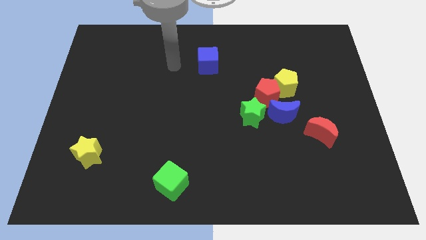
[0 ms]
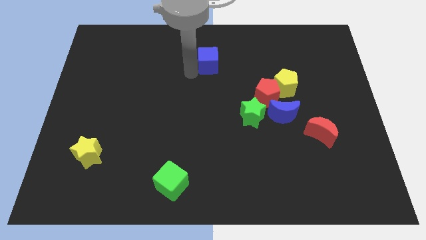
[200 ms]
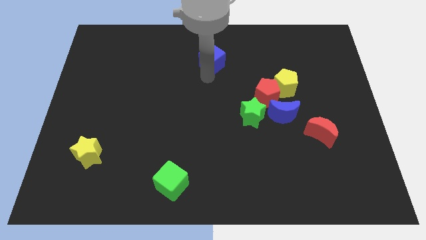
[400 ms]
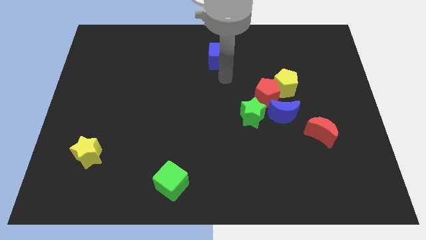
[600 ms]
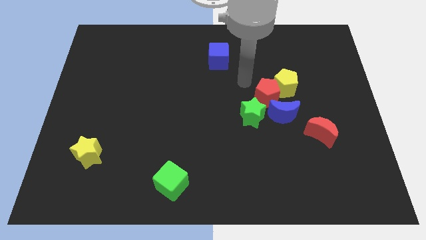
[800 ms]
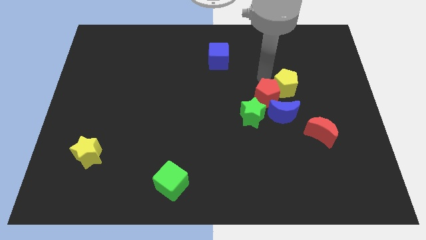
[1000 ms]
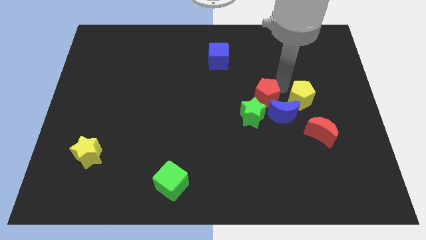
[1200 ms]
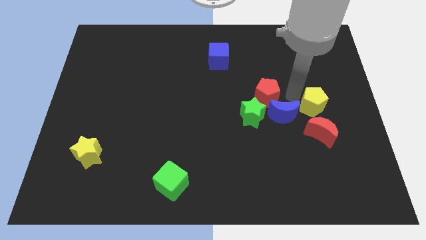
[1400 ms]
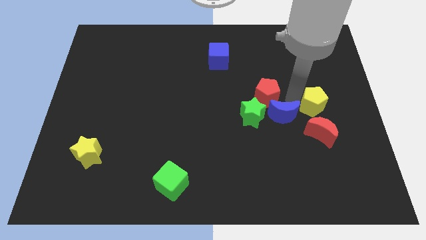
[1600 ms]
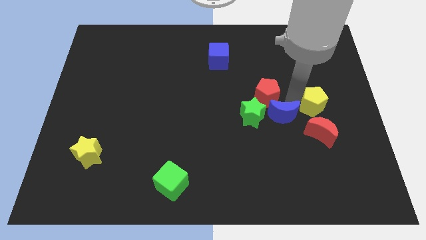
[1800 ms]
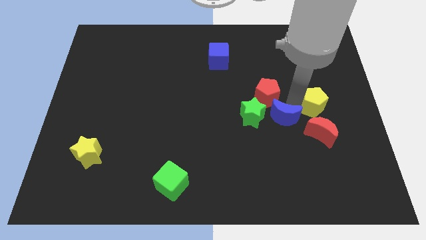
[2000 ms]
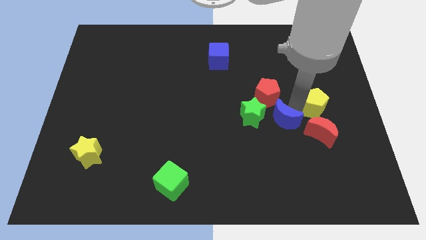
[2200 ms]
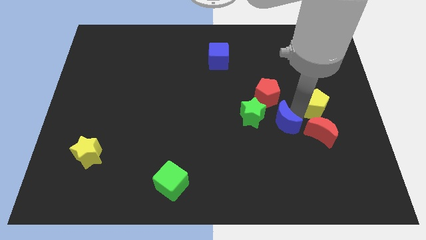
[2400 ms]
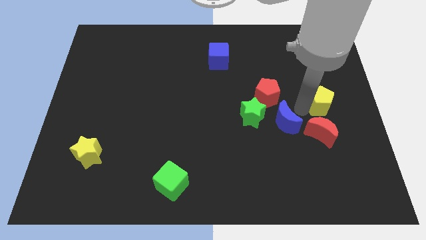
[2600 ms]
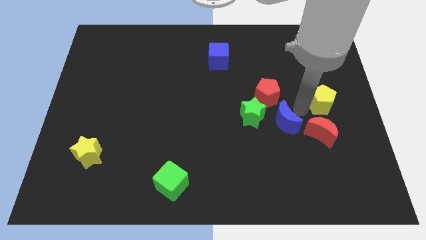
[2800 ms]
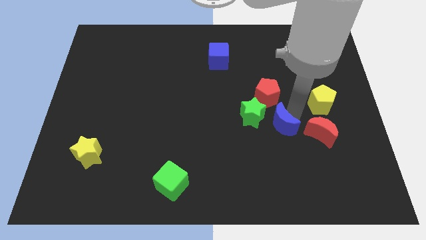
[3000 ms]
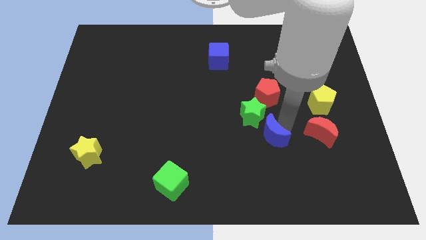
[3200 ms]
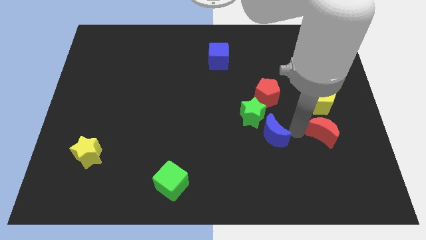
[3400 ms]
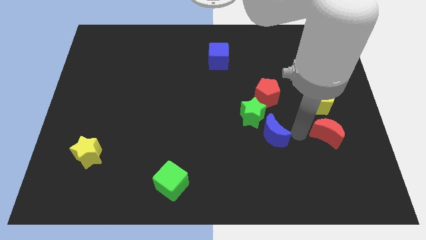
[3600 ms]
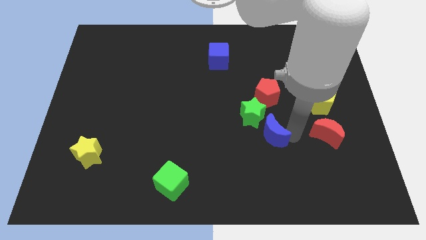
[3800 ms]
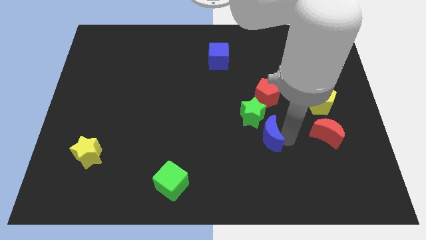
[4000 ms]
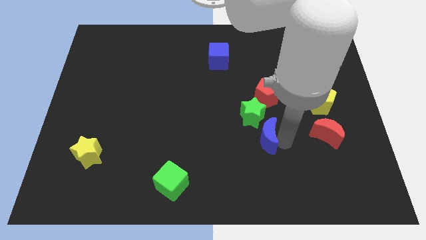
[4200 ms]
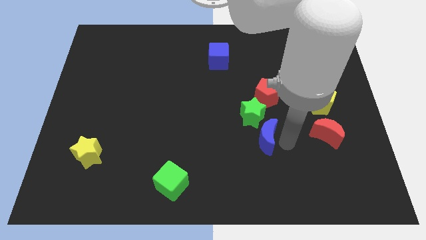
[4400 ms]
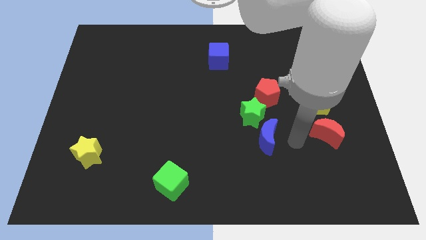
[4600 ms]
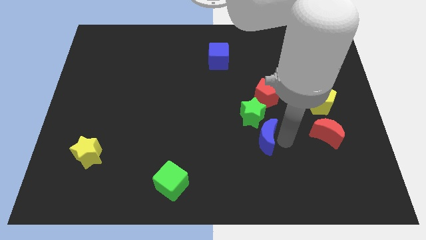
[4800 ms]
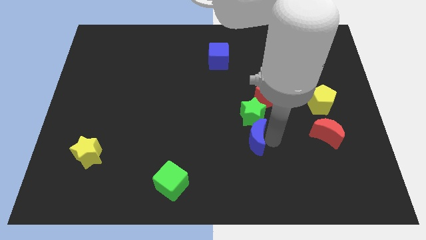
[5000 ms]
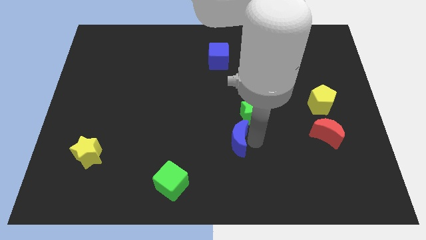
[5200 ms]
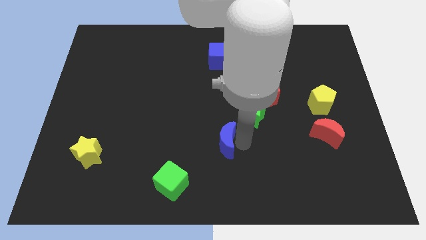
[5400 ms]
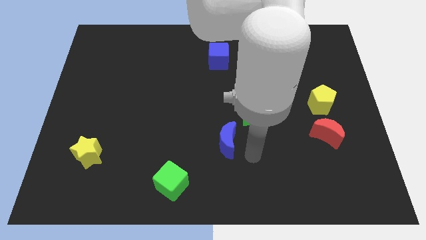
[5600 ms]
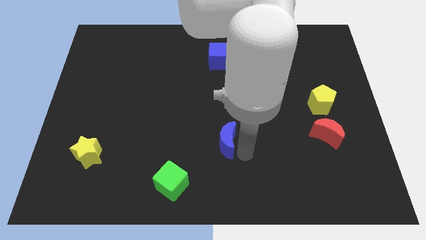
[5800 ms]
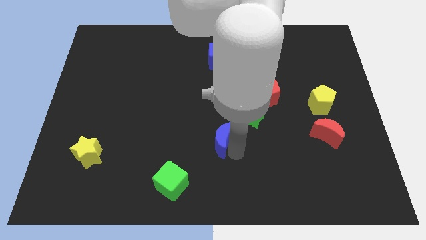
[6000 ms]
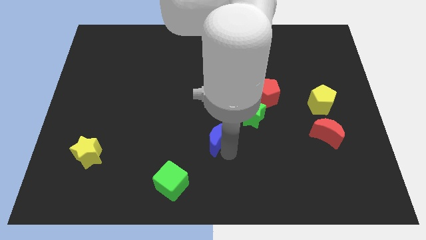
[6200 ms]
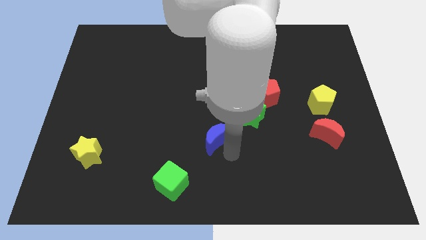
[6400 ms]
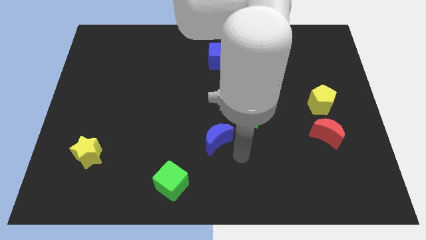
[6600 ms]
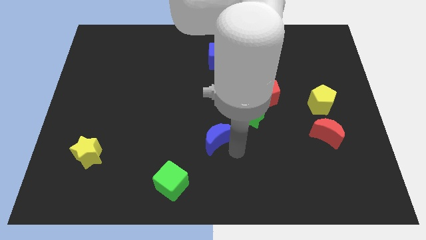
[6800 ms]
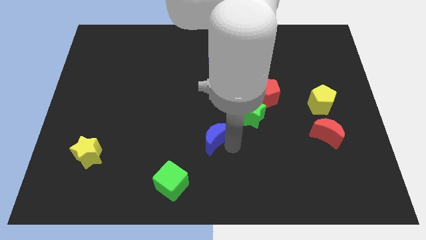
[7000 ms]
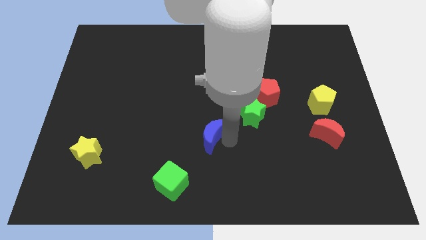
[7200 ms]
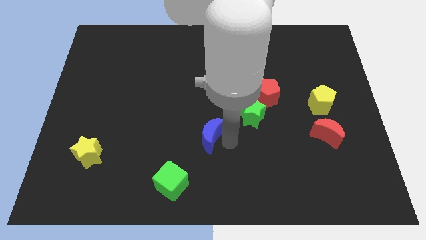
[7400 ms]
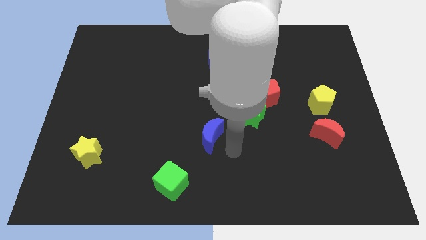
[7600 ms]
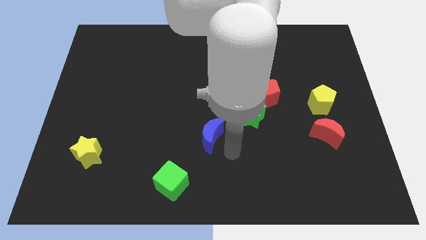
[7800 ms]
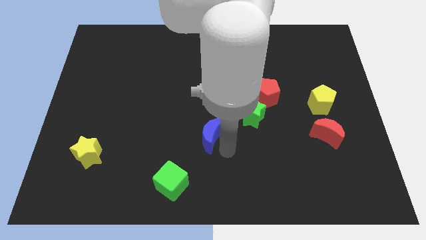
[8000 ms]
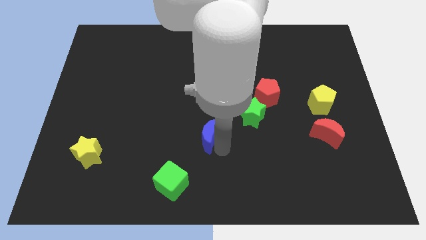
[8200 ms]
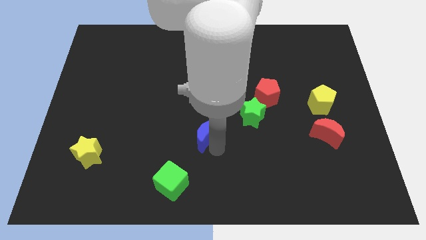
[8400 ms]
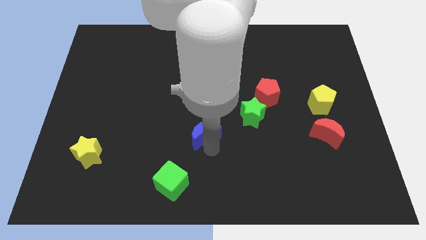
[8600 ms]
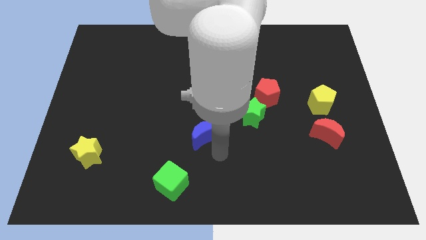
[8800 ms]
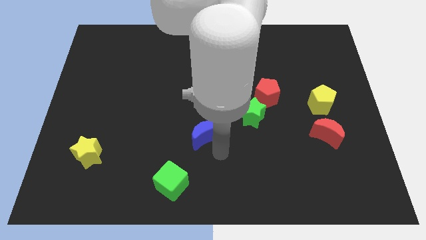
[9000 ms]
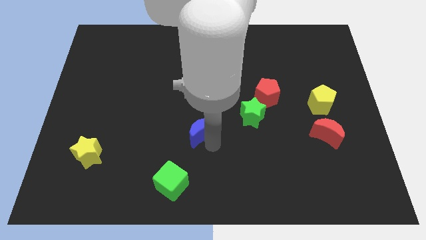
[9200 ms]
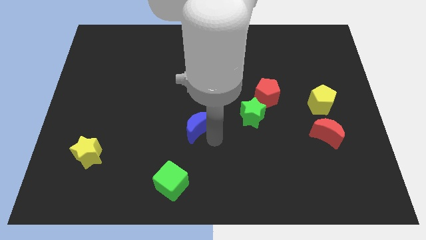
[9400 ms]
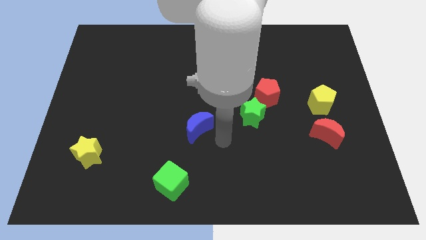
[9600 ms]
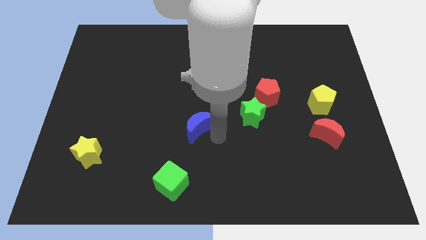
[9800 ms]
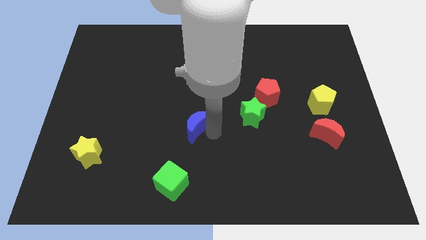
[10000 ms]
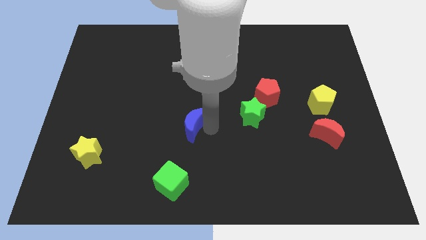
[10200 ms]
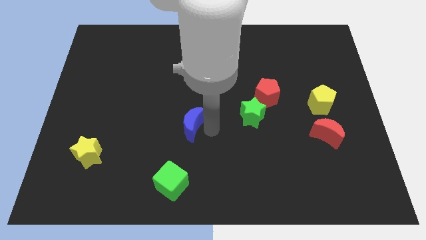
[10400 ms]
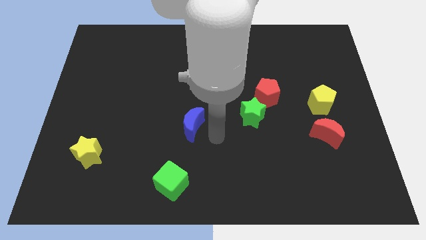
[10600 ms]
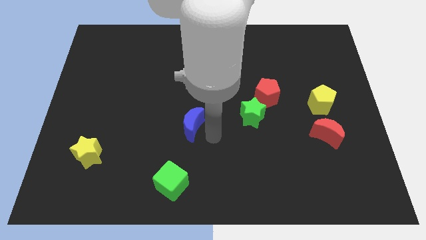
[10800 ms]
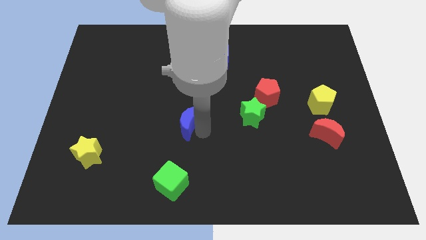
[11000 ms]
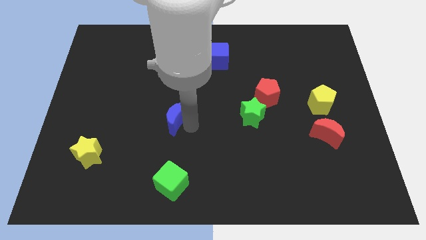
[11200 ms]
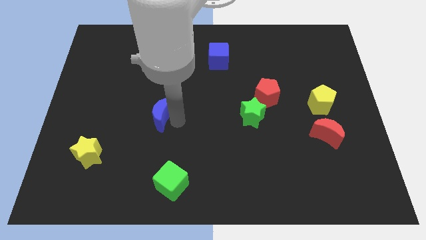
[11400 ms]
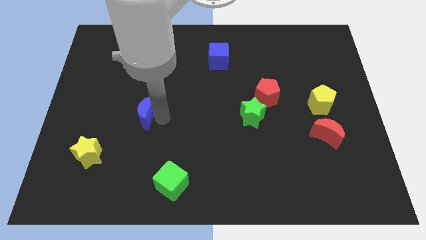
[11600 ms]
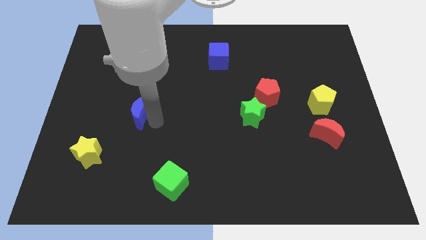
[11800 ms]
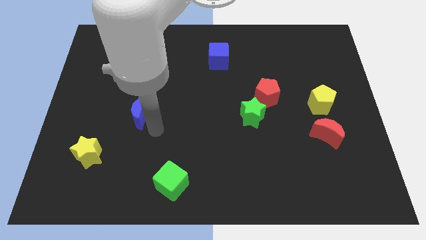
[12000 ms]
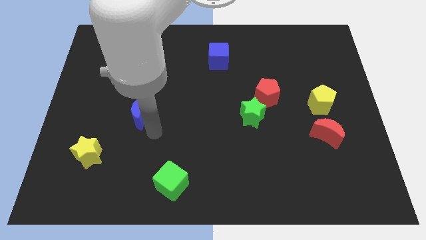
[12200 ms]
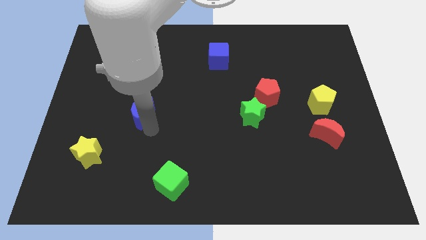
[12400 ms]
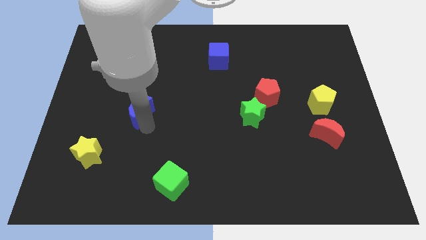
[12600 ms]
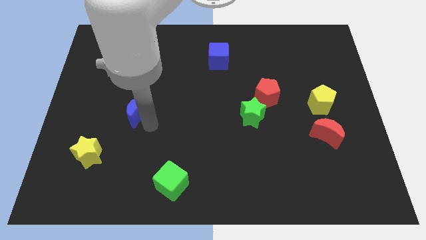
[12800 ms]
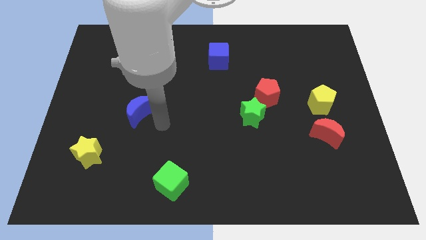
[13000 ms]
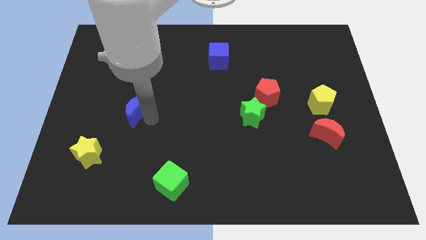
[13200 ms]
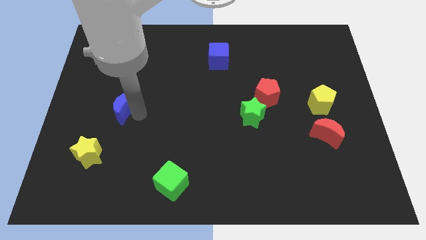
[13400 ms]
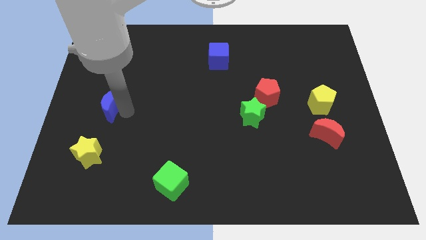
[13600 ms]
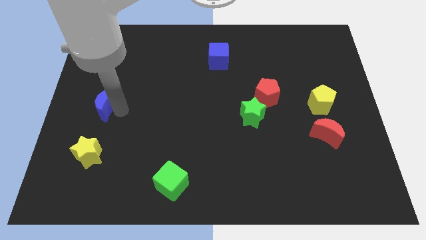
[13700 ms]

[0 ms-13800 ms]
move the blue moon to the left side of the board
